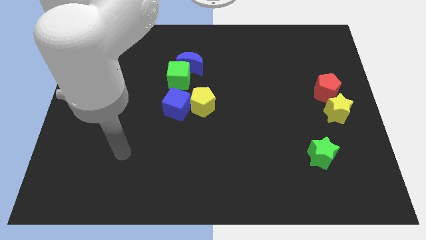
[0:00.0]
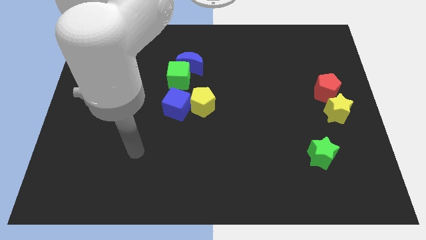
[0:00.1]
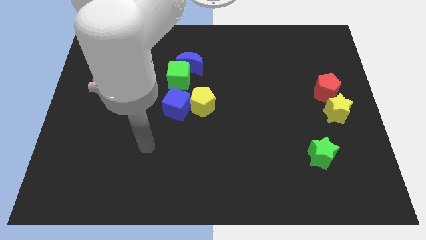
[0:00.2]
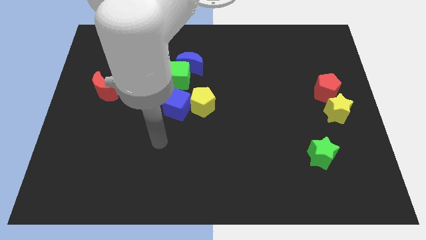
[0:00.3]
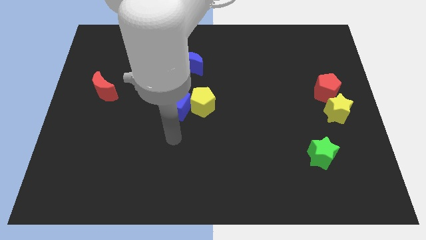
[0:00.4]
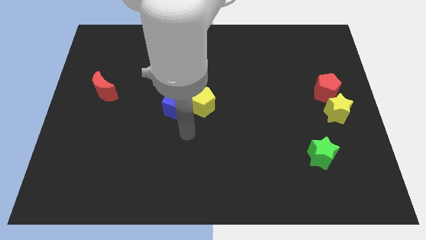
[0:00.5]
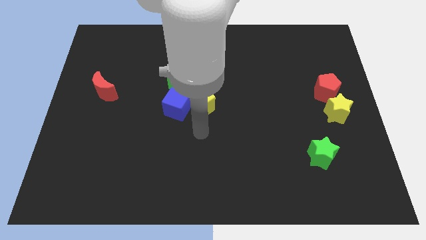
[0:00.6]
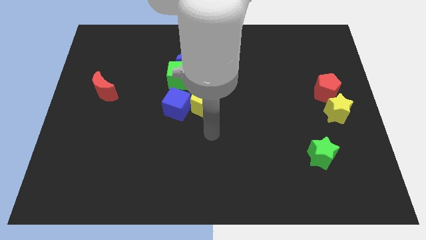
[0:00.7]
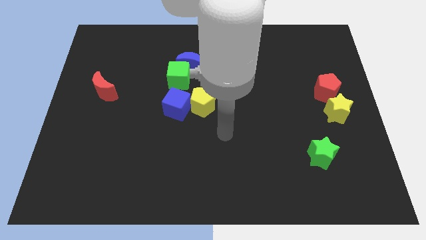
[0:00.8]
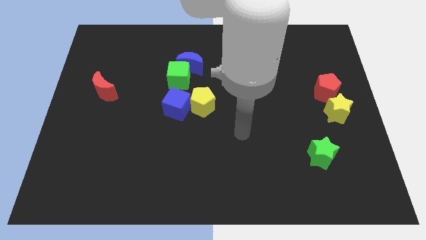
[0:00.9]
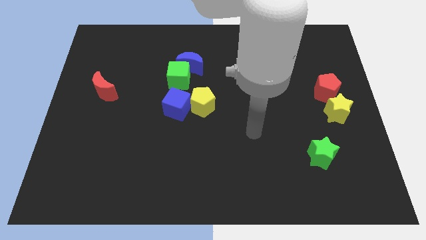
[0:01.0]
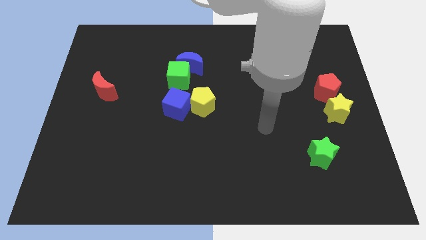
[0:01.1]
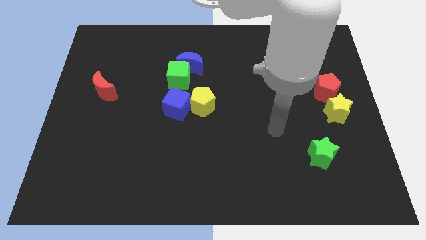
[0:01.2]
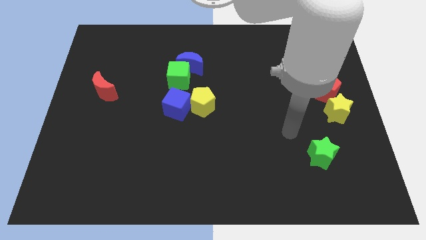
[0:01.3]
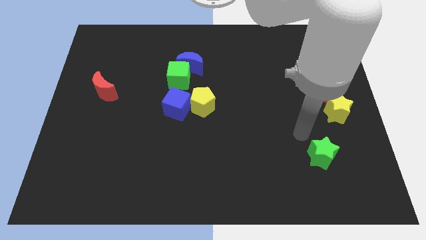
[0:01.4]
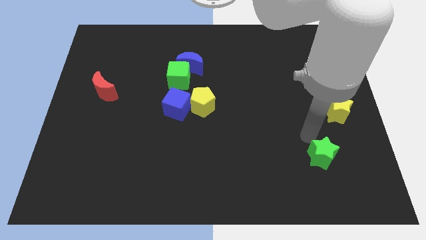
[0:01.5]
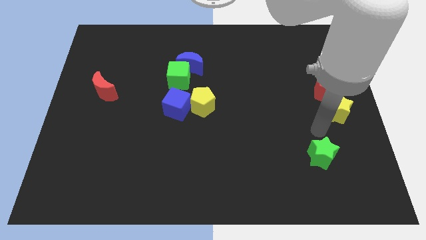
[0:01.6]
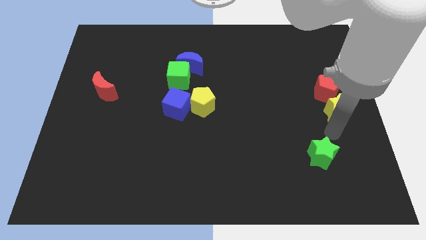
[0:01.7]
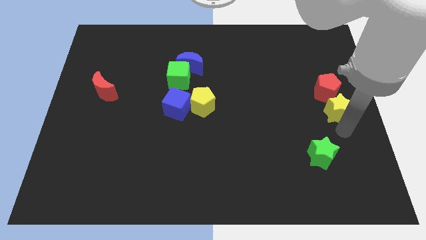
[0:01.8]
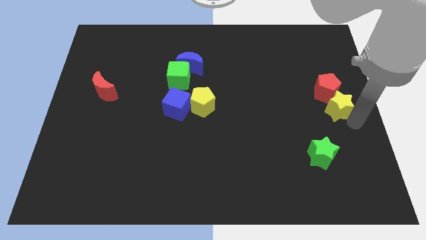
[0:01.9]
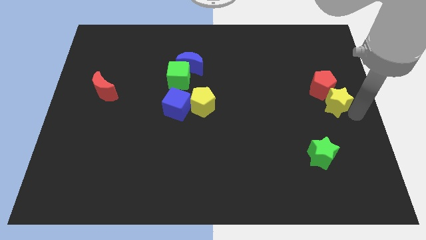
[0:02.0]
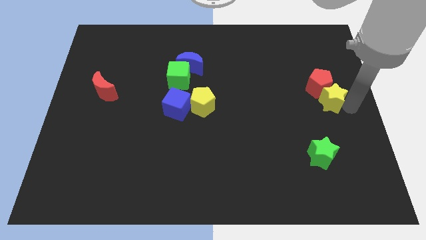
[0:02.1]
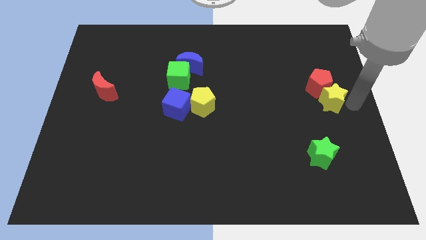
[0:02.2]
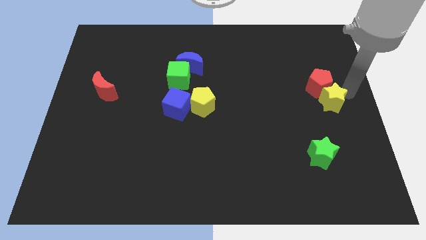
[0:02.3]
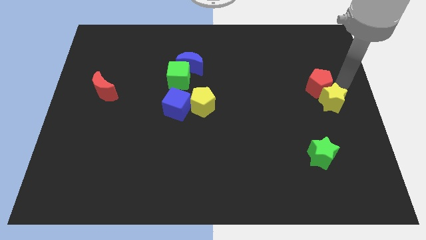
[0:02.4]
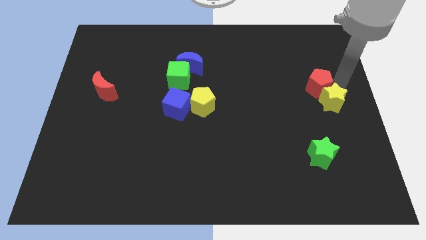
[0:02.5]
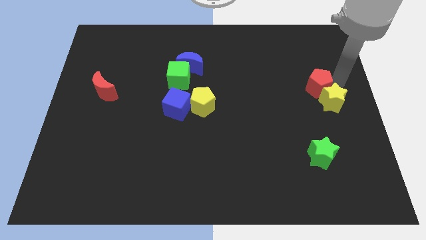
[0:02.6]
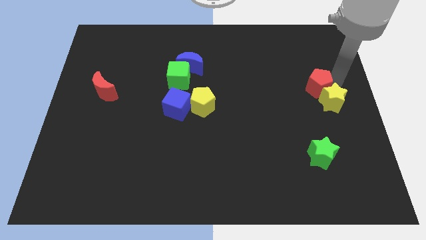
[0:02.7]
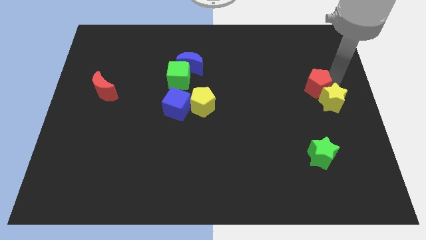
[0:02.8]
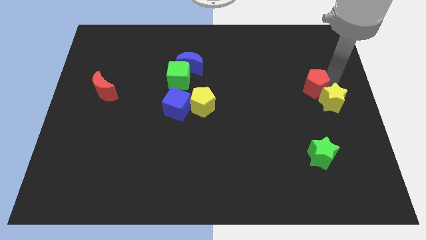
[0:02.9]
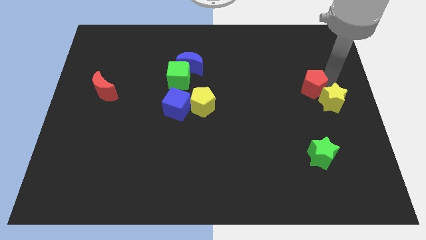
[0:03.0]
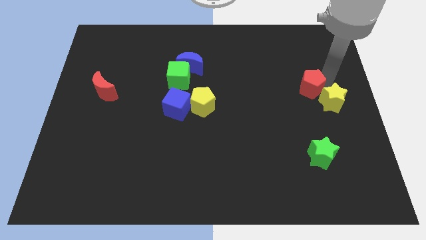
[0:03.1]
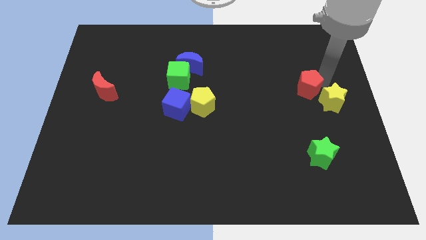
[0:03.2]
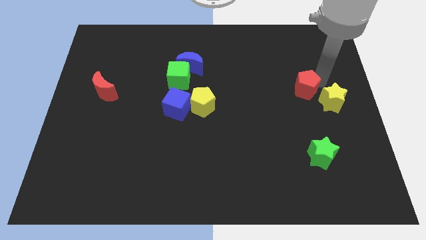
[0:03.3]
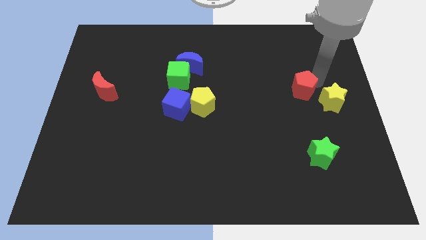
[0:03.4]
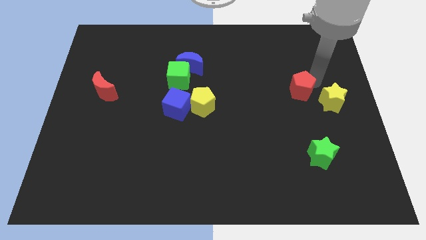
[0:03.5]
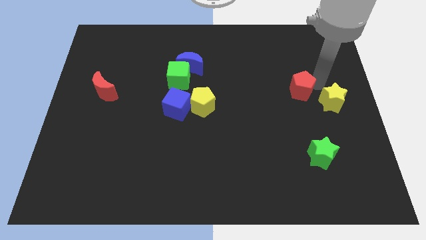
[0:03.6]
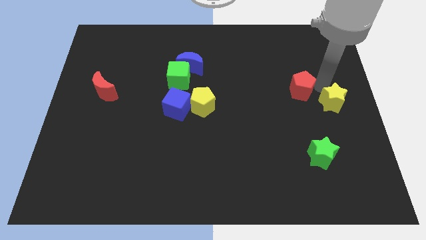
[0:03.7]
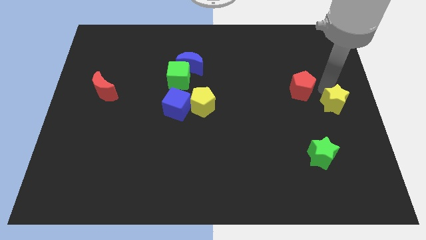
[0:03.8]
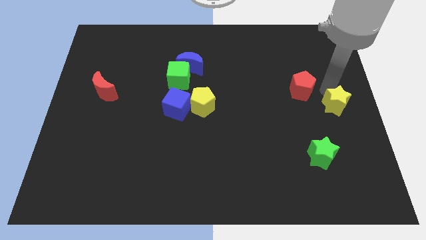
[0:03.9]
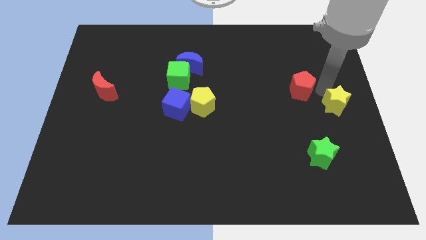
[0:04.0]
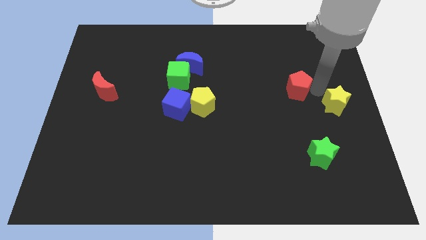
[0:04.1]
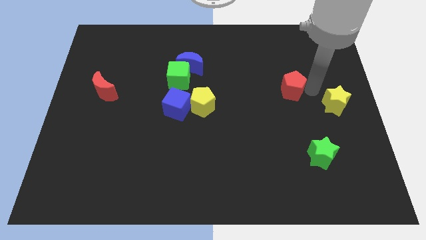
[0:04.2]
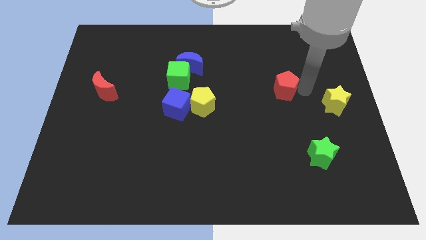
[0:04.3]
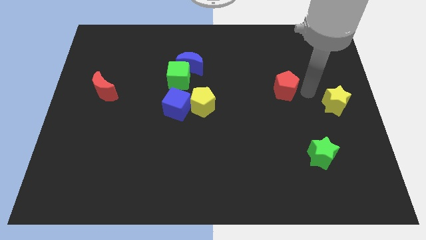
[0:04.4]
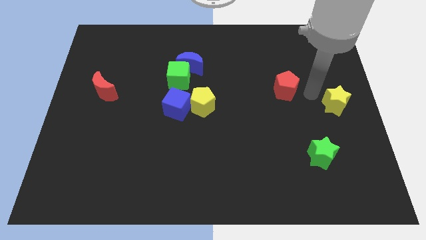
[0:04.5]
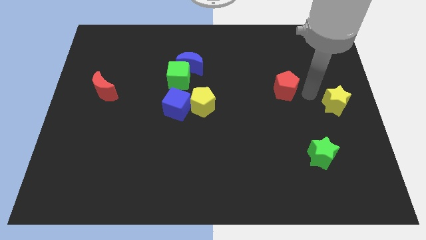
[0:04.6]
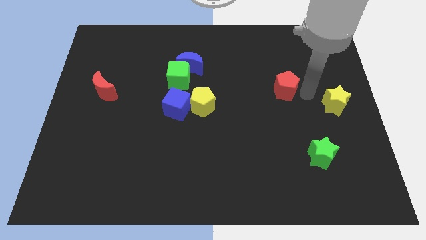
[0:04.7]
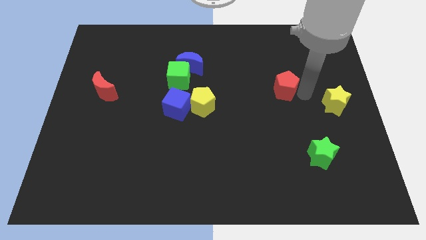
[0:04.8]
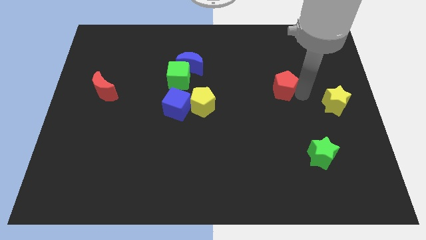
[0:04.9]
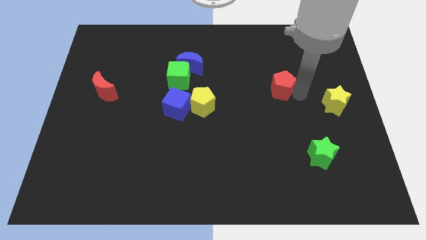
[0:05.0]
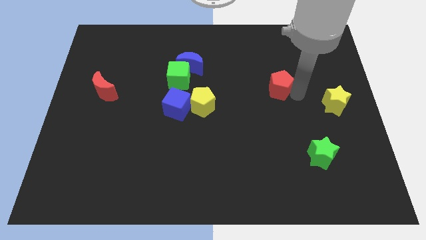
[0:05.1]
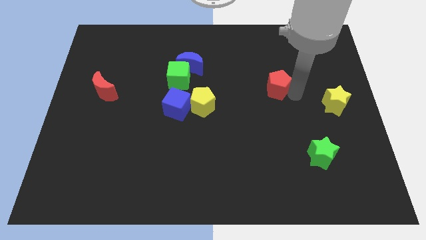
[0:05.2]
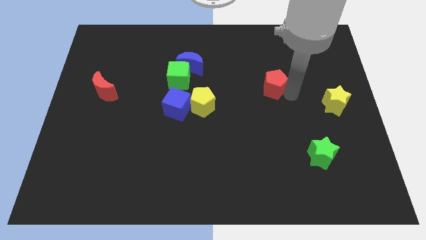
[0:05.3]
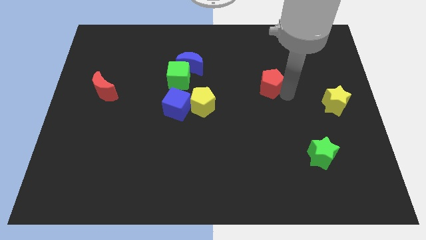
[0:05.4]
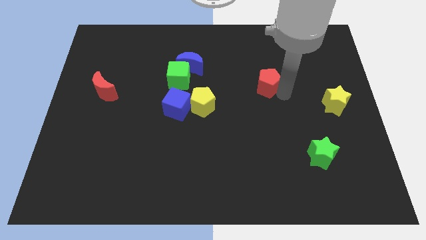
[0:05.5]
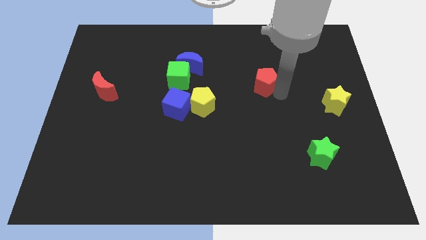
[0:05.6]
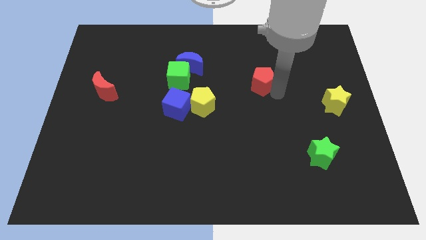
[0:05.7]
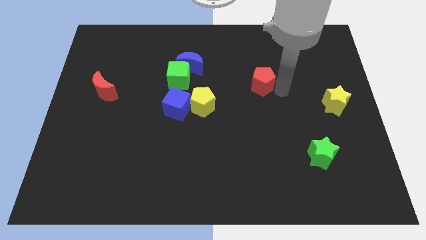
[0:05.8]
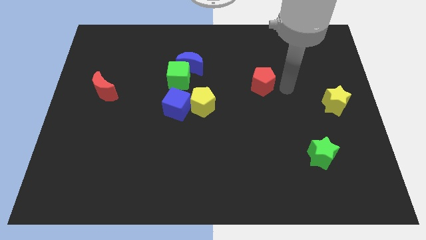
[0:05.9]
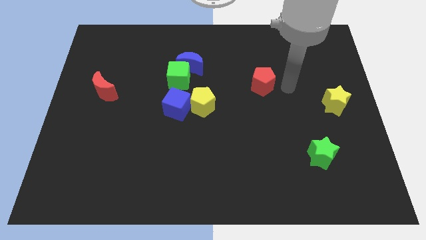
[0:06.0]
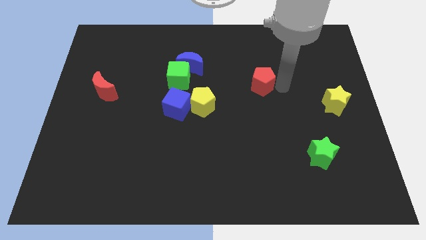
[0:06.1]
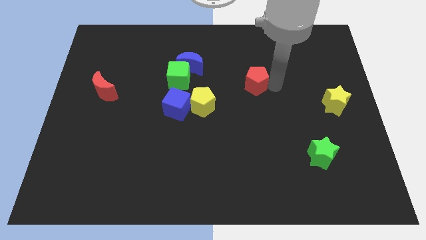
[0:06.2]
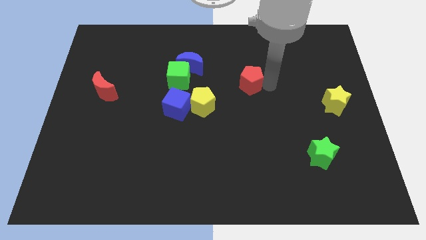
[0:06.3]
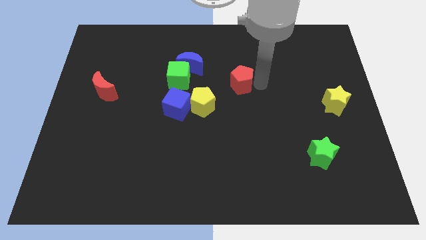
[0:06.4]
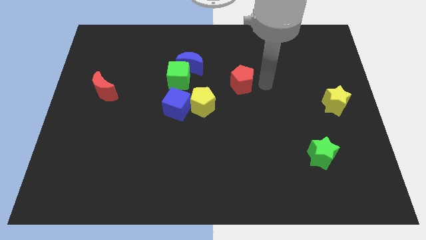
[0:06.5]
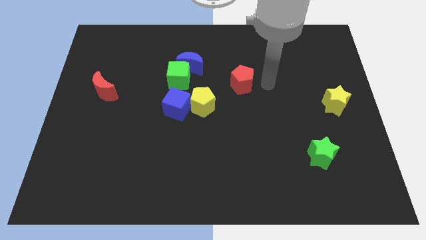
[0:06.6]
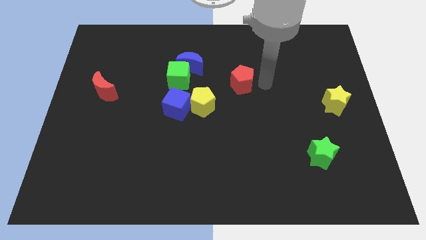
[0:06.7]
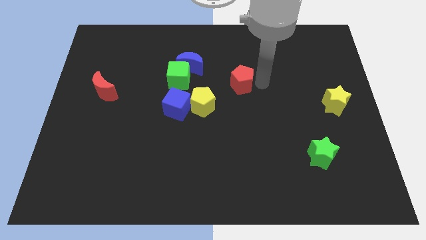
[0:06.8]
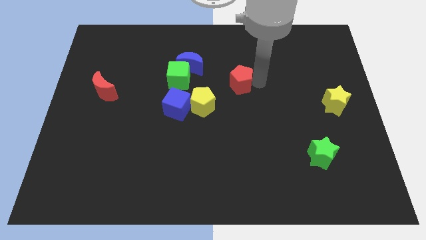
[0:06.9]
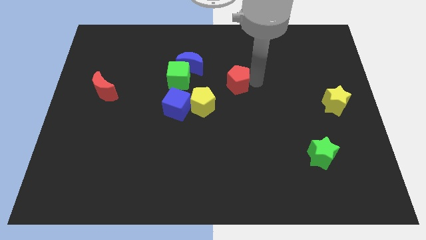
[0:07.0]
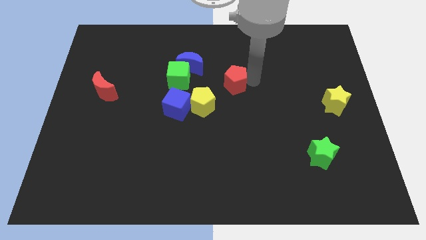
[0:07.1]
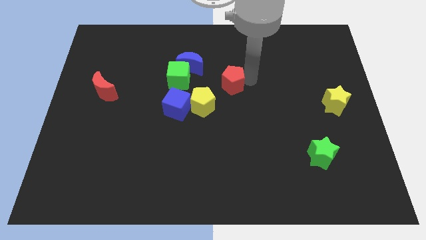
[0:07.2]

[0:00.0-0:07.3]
put the red pentagon to the bottom right side of the blue moon

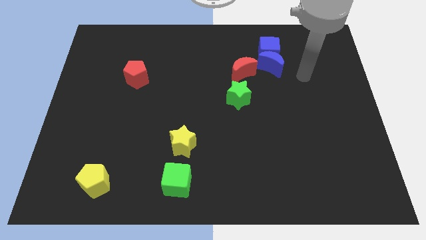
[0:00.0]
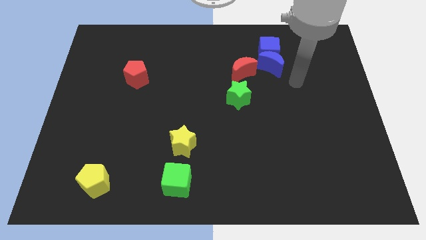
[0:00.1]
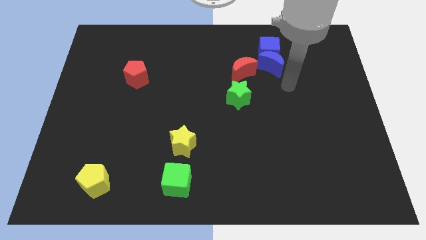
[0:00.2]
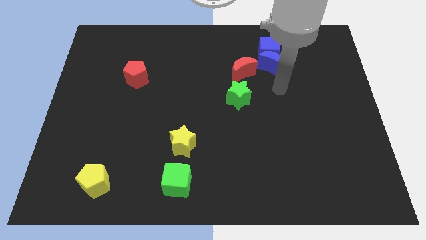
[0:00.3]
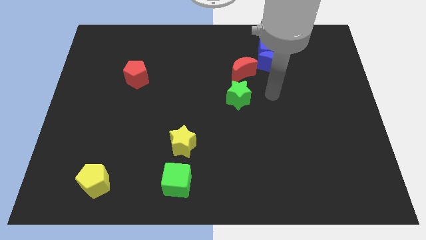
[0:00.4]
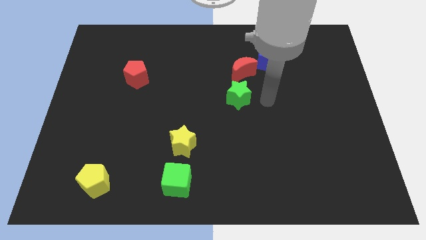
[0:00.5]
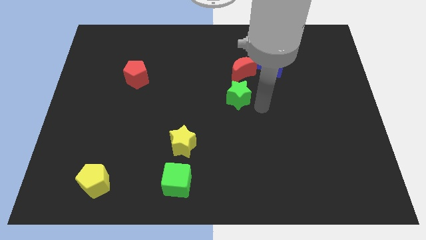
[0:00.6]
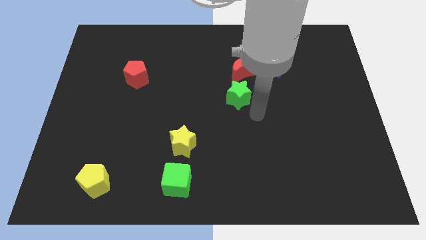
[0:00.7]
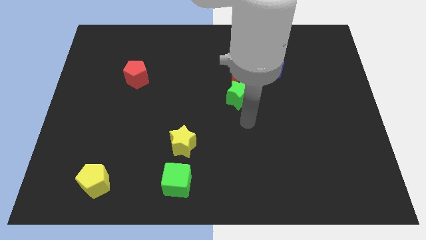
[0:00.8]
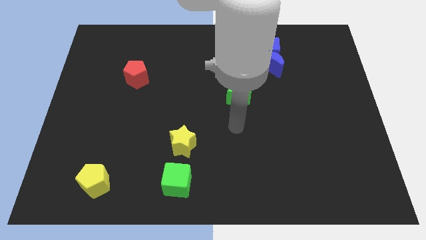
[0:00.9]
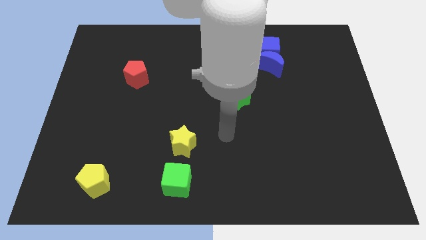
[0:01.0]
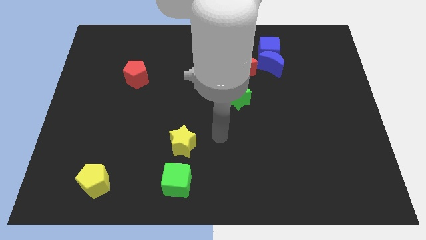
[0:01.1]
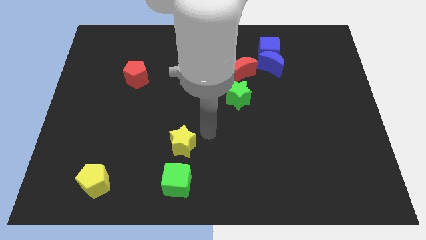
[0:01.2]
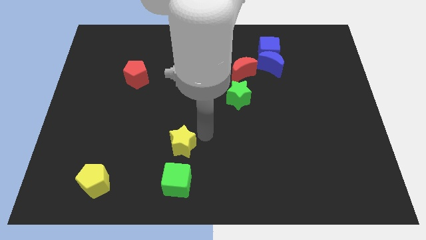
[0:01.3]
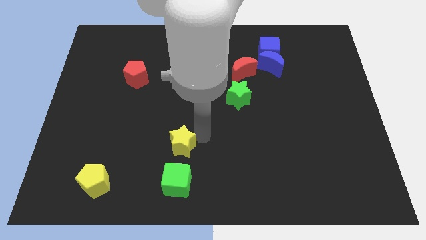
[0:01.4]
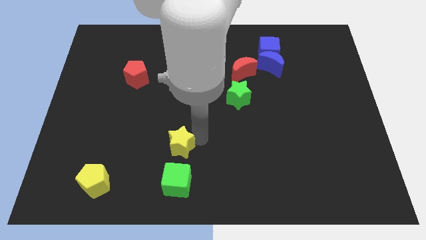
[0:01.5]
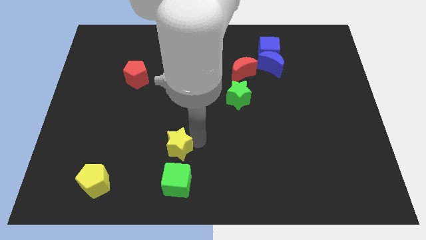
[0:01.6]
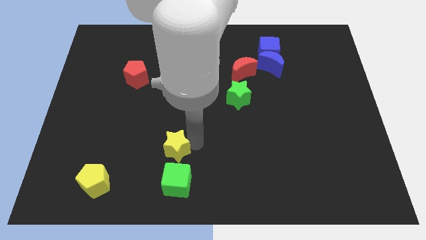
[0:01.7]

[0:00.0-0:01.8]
move the yellow star to the top left side of the green cube
